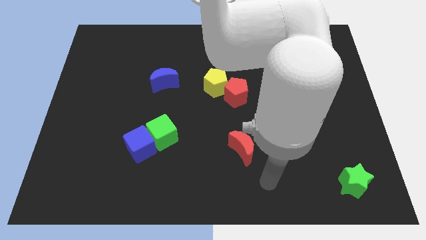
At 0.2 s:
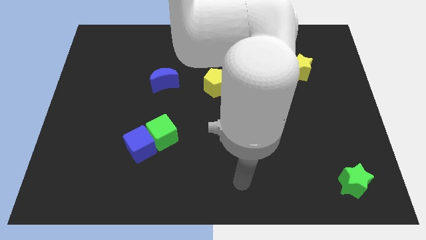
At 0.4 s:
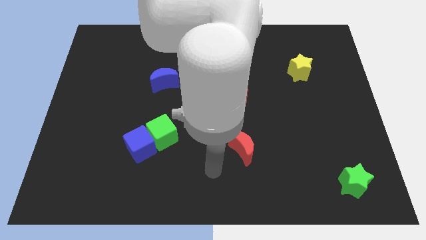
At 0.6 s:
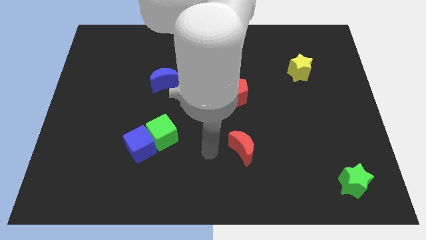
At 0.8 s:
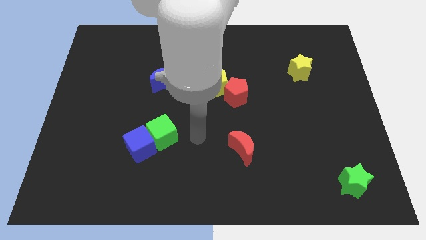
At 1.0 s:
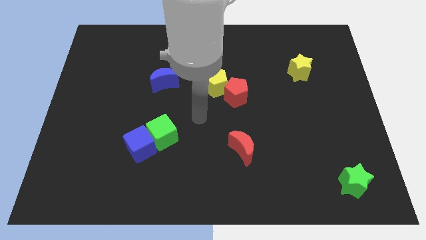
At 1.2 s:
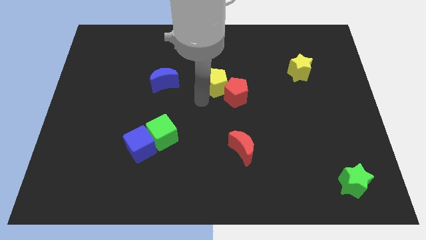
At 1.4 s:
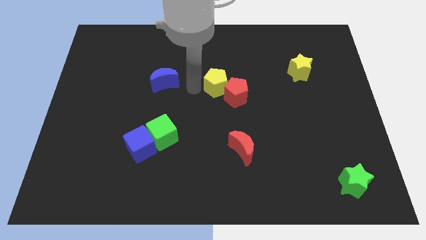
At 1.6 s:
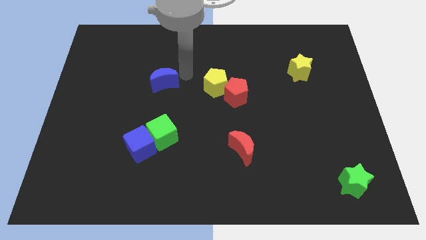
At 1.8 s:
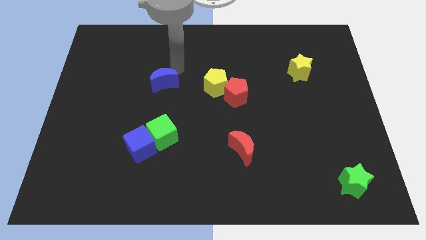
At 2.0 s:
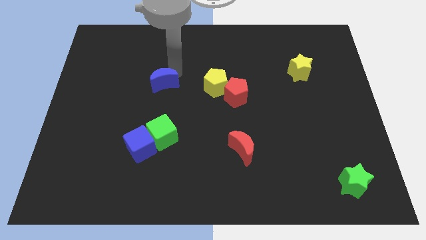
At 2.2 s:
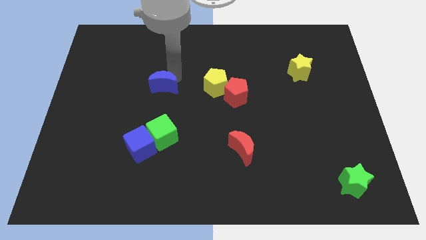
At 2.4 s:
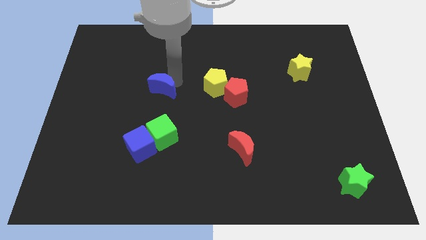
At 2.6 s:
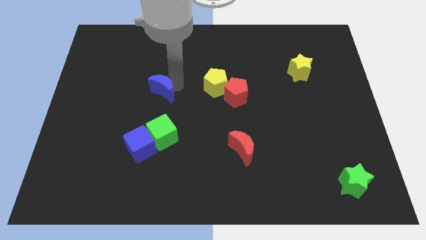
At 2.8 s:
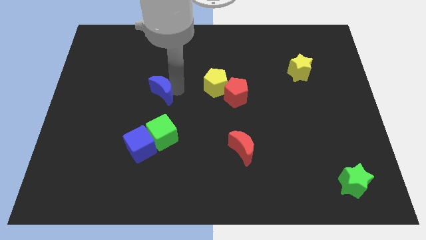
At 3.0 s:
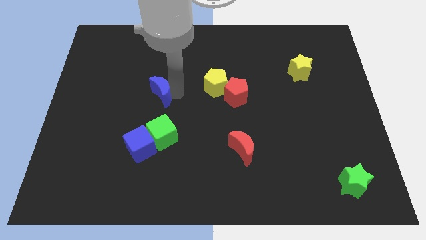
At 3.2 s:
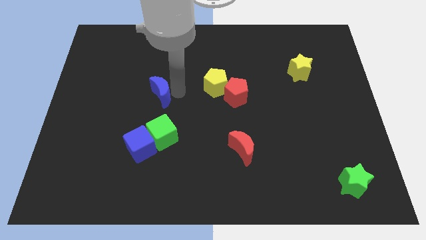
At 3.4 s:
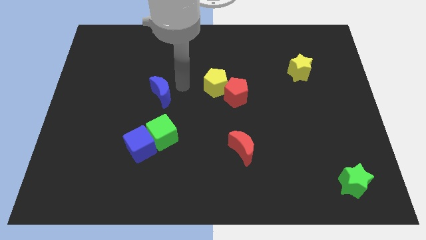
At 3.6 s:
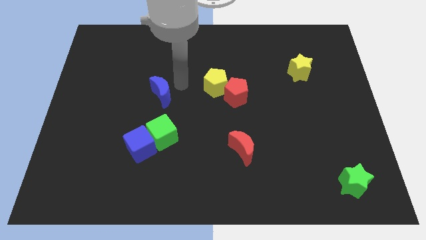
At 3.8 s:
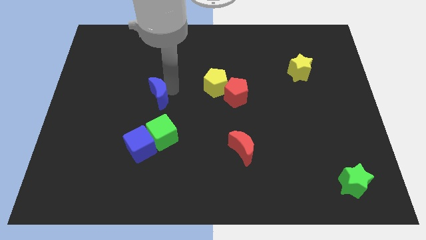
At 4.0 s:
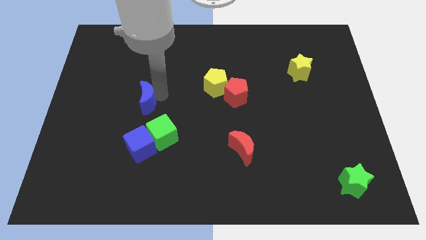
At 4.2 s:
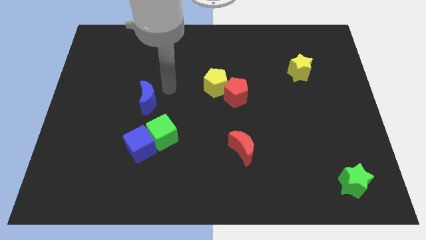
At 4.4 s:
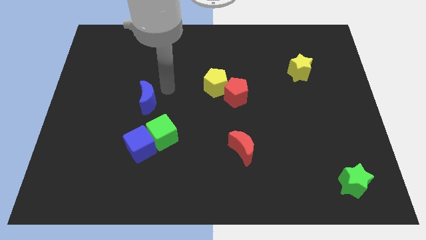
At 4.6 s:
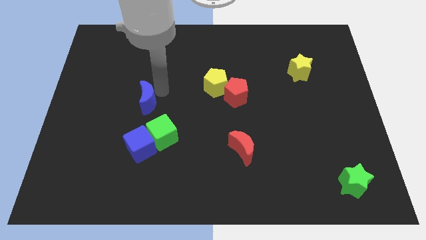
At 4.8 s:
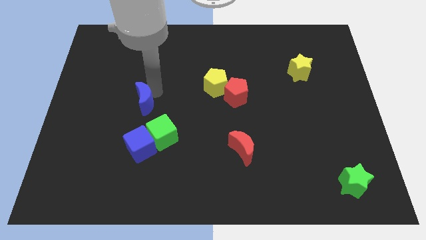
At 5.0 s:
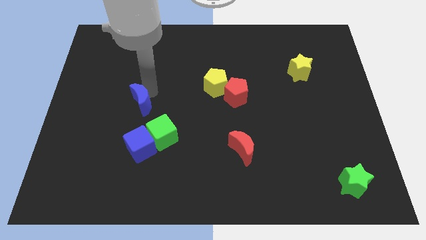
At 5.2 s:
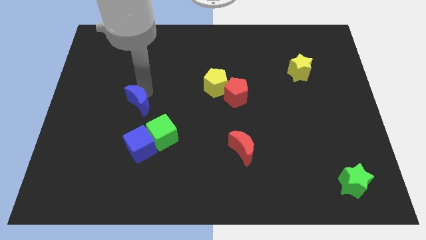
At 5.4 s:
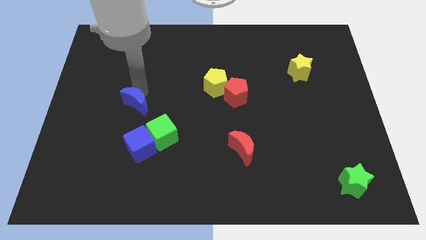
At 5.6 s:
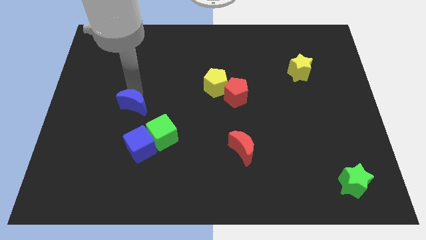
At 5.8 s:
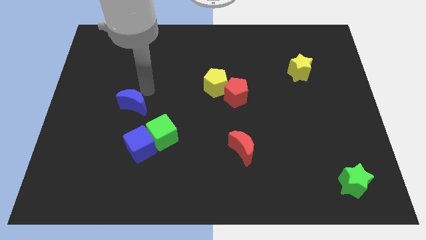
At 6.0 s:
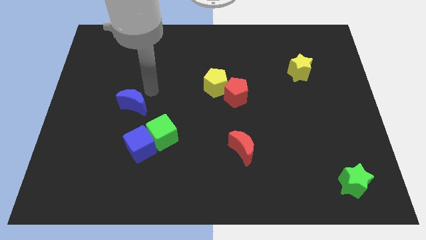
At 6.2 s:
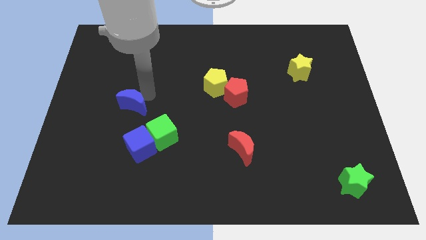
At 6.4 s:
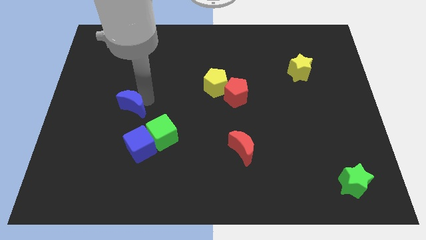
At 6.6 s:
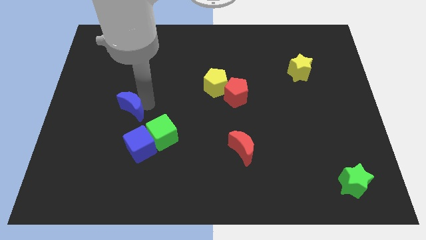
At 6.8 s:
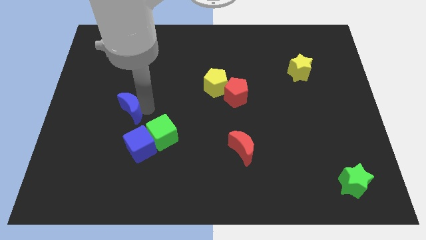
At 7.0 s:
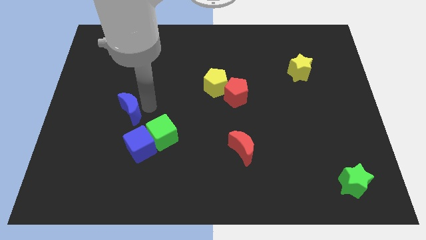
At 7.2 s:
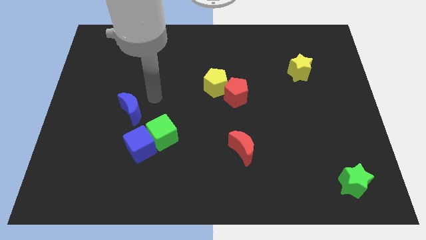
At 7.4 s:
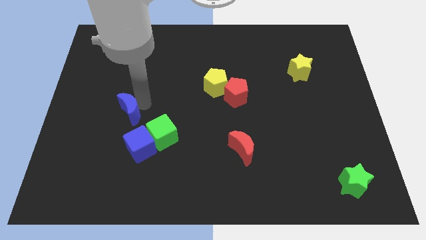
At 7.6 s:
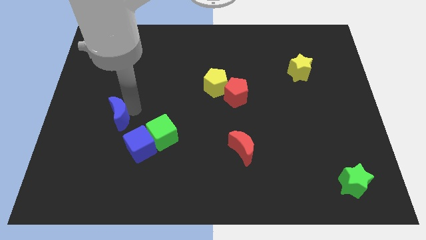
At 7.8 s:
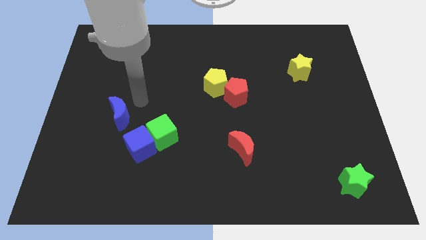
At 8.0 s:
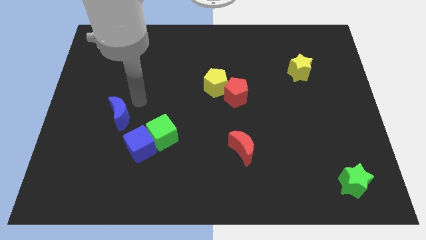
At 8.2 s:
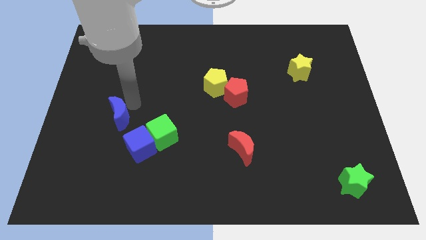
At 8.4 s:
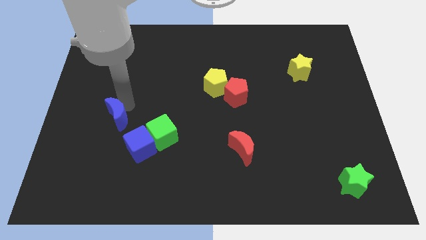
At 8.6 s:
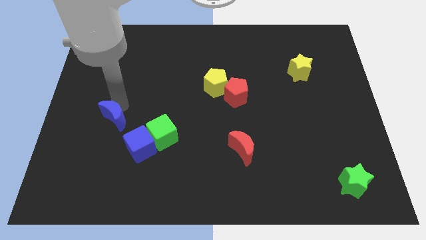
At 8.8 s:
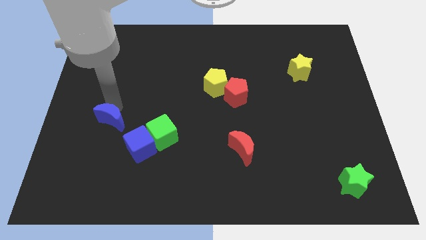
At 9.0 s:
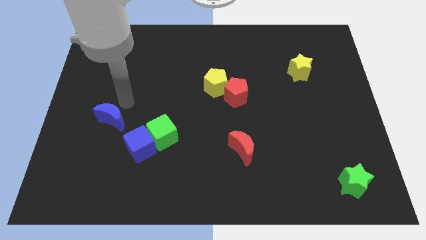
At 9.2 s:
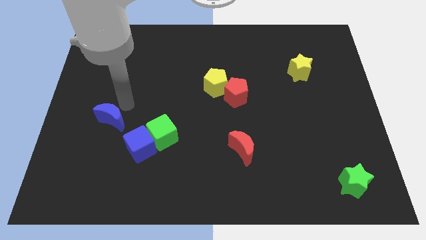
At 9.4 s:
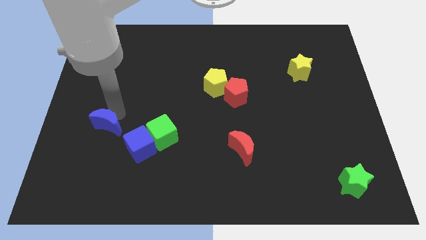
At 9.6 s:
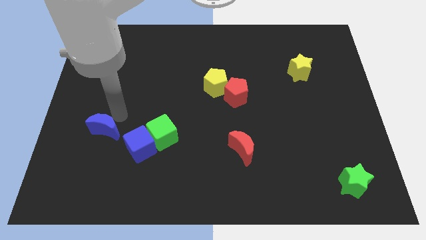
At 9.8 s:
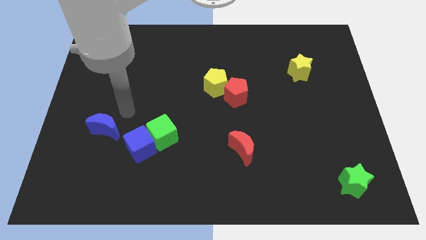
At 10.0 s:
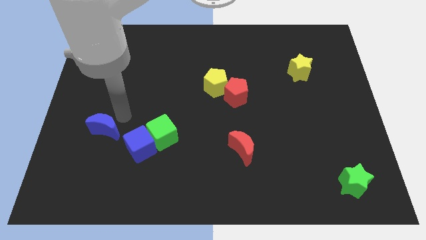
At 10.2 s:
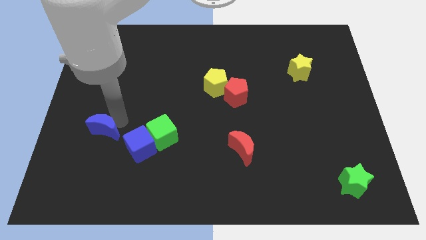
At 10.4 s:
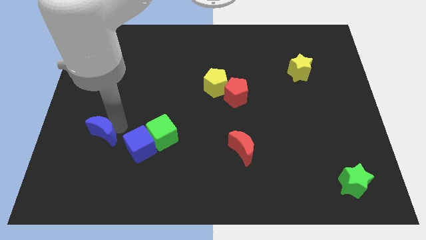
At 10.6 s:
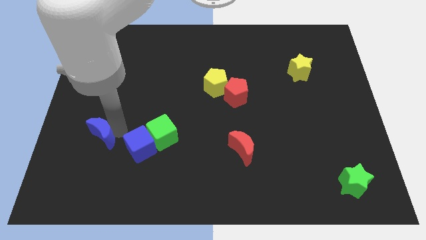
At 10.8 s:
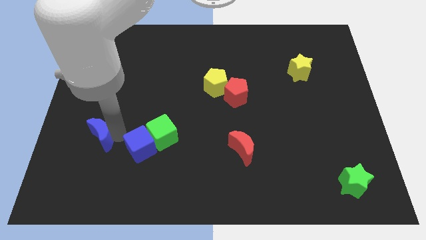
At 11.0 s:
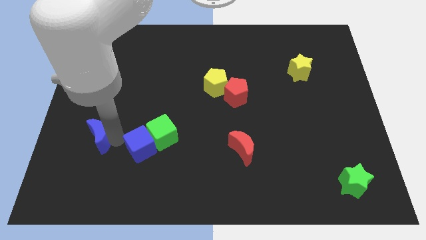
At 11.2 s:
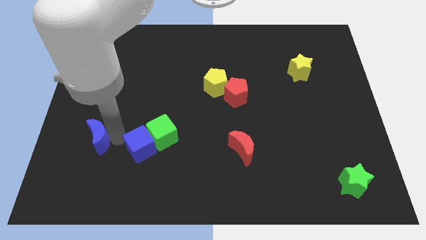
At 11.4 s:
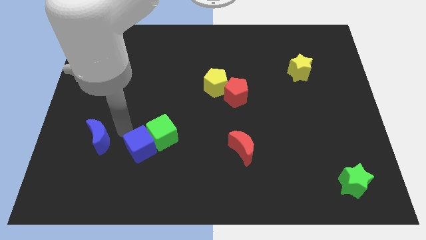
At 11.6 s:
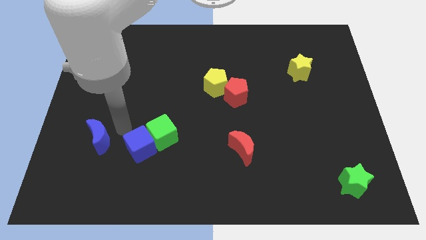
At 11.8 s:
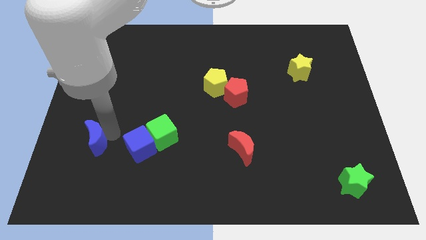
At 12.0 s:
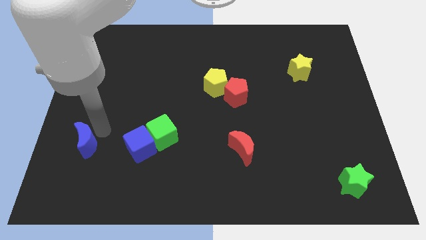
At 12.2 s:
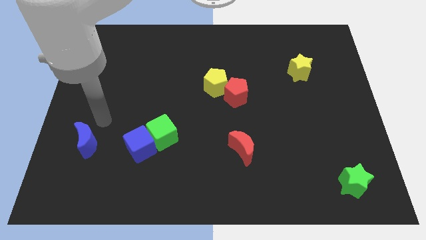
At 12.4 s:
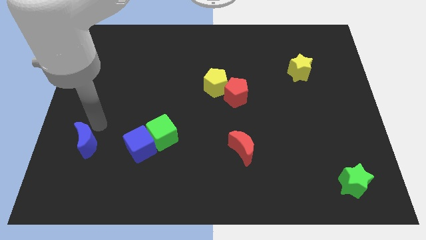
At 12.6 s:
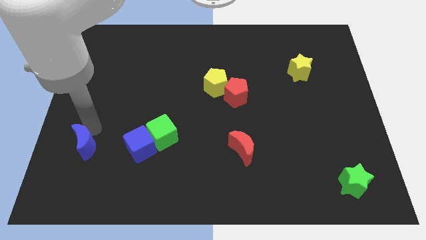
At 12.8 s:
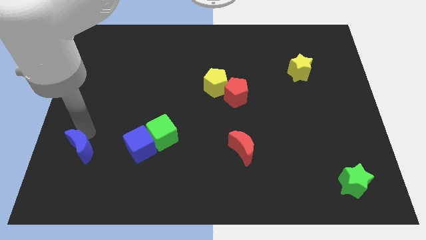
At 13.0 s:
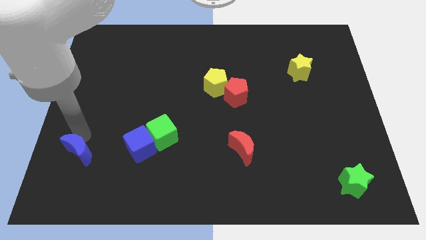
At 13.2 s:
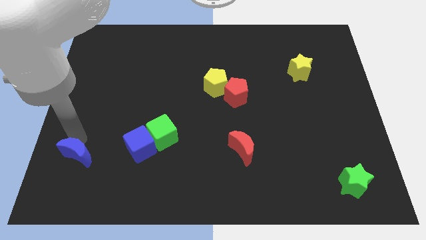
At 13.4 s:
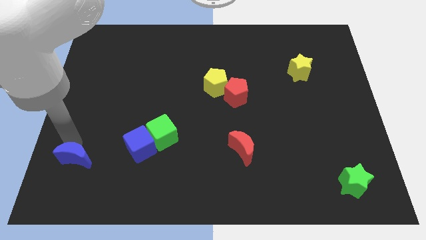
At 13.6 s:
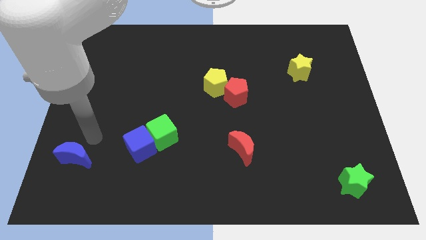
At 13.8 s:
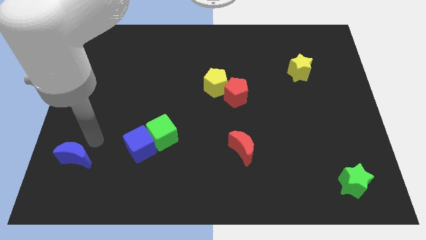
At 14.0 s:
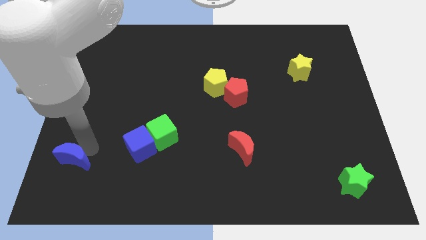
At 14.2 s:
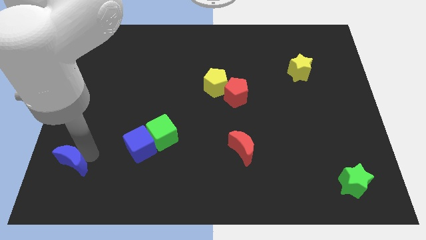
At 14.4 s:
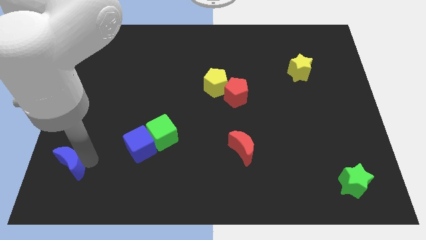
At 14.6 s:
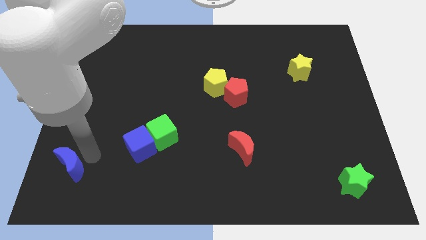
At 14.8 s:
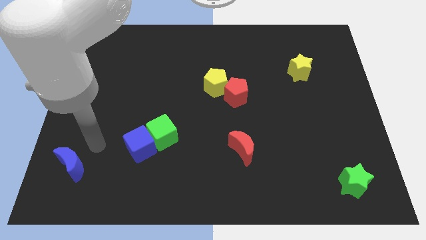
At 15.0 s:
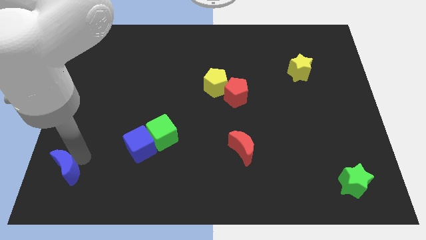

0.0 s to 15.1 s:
push the blue moon to the bottom left corner
